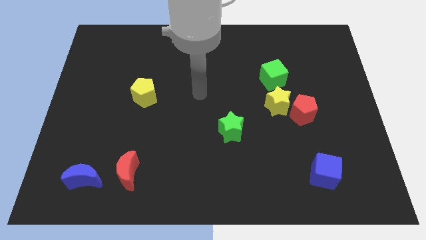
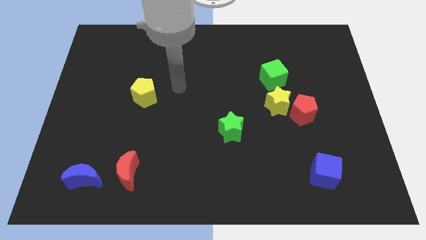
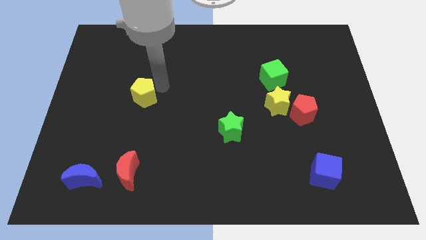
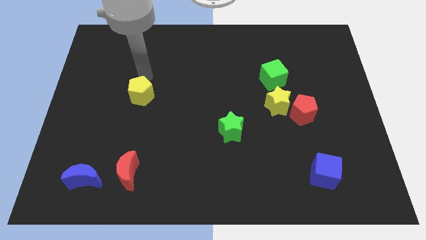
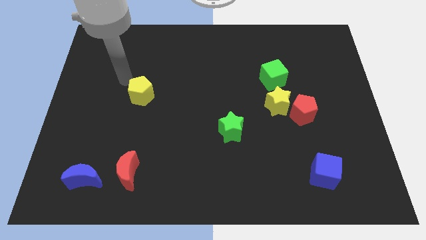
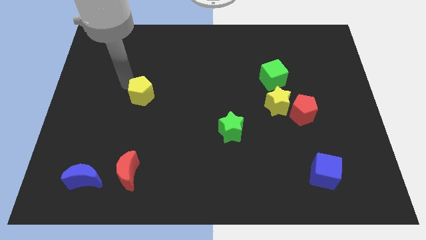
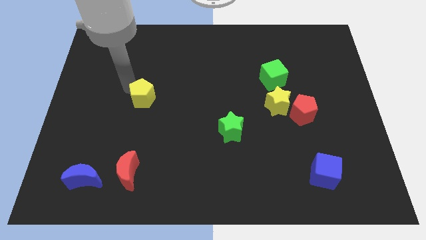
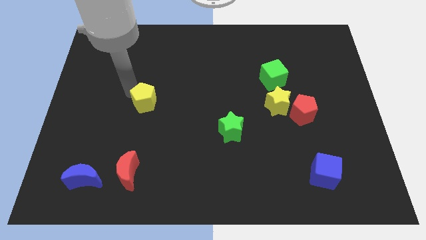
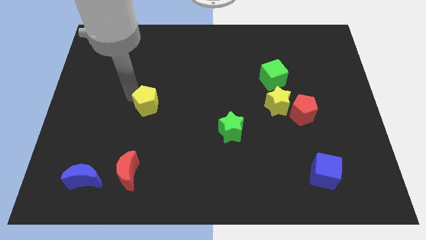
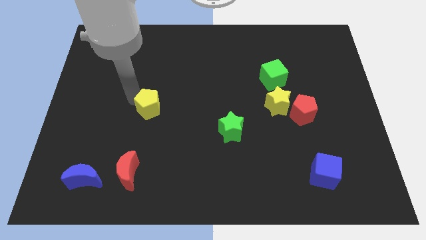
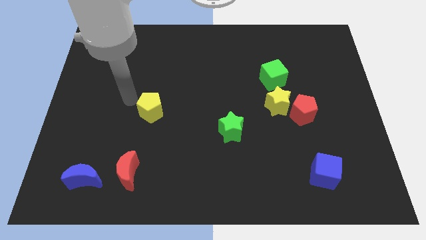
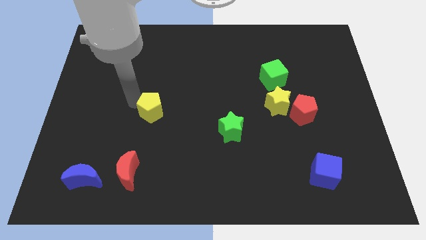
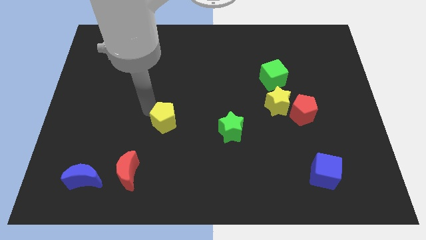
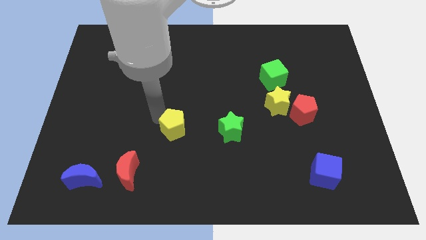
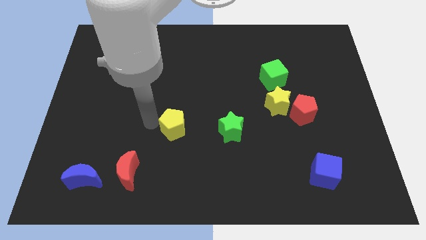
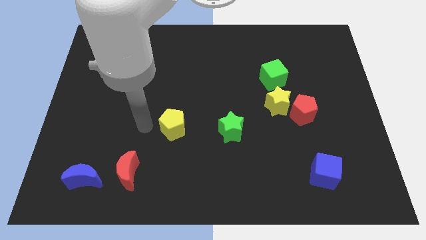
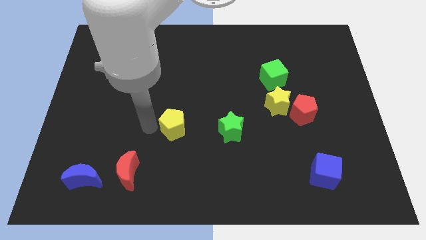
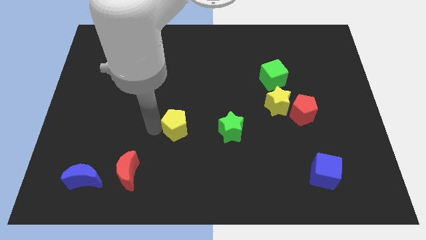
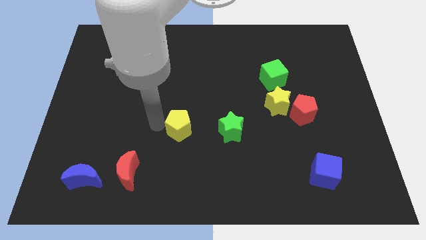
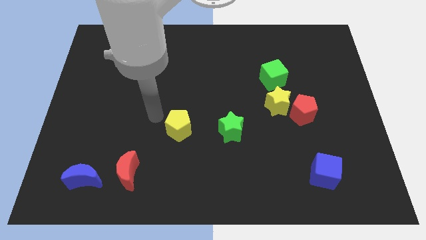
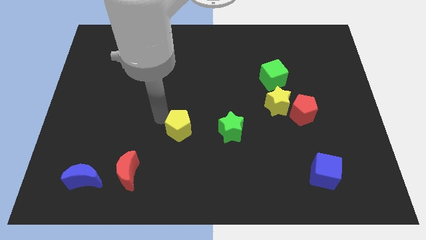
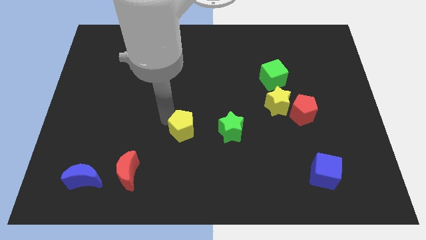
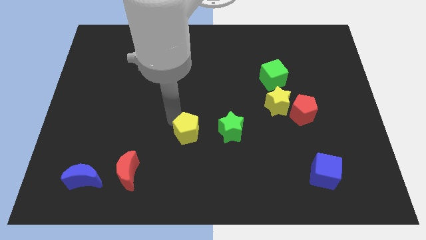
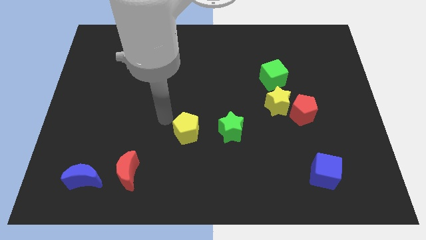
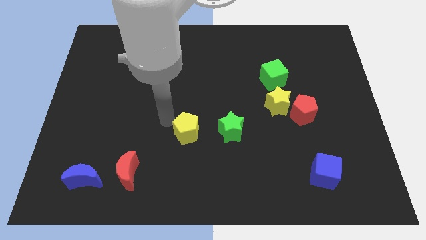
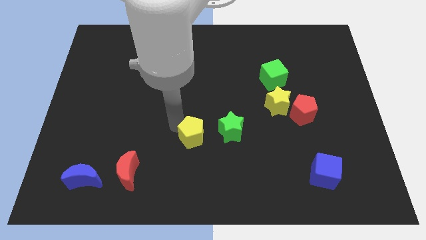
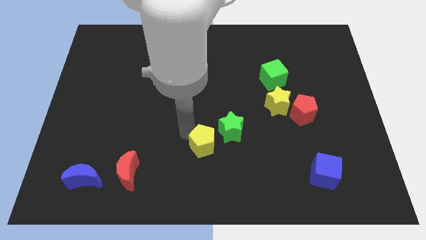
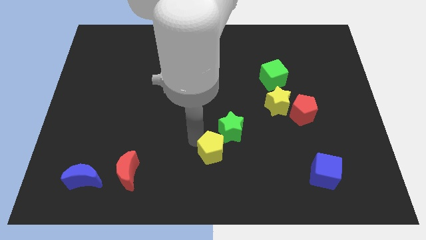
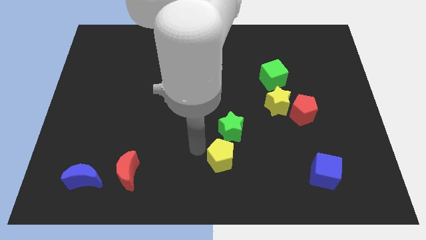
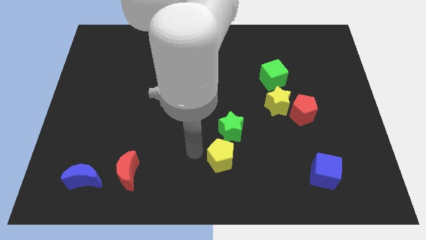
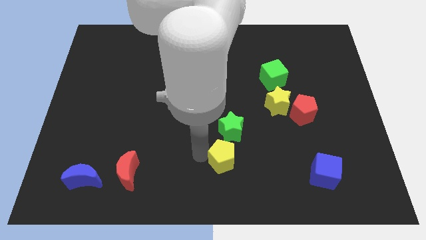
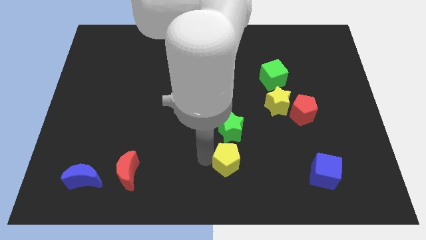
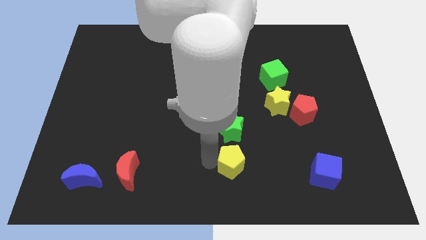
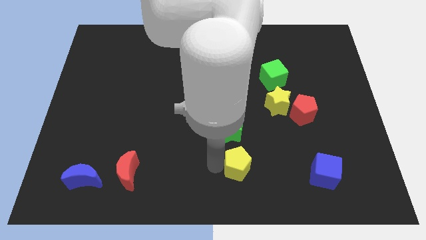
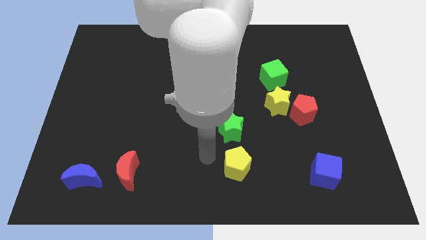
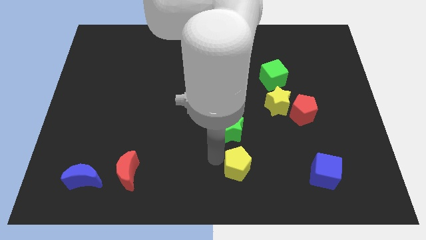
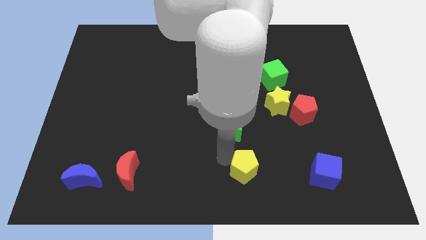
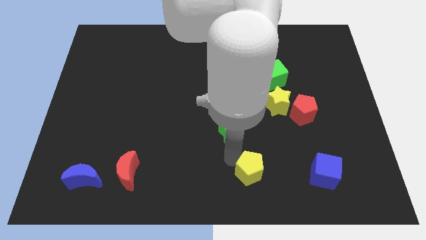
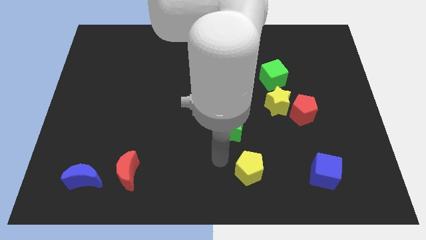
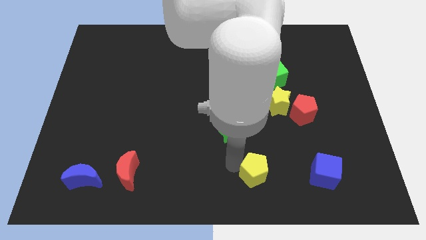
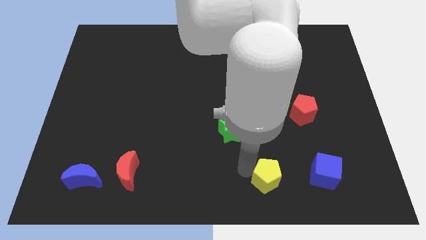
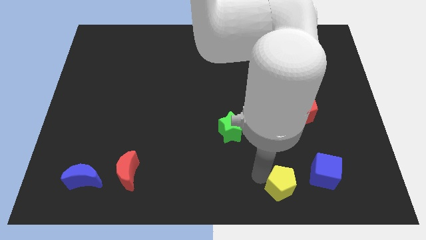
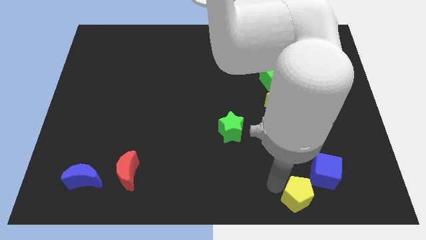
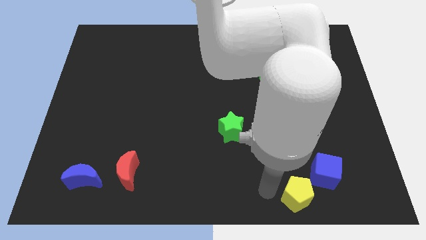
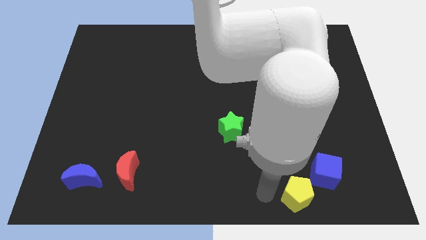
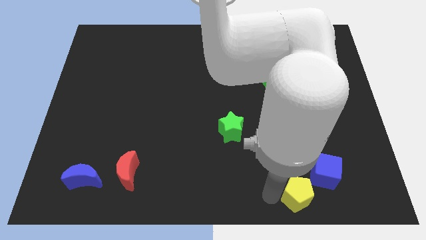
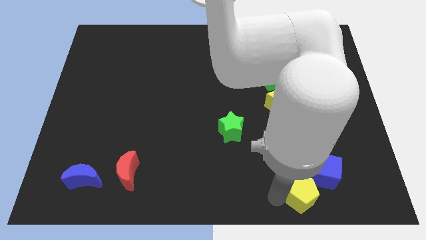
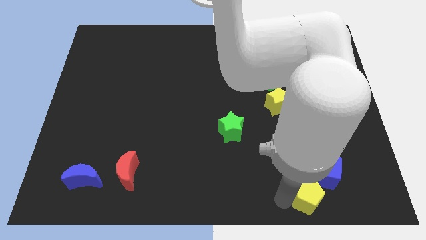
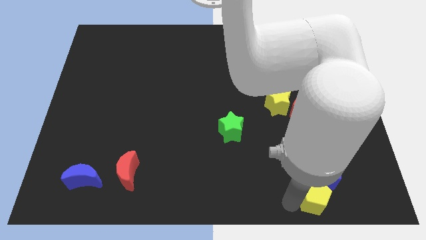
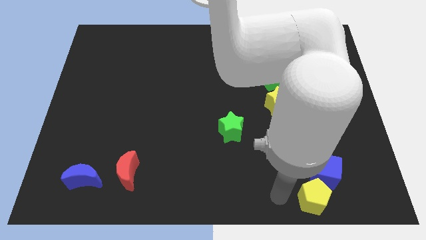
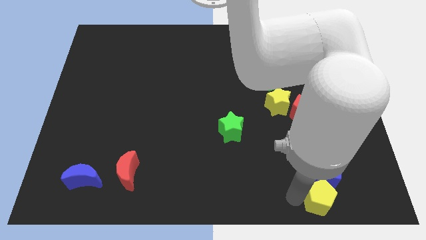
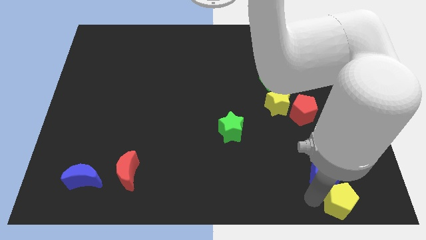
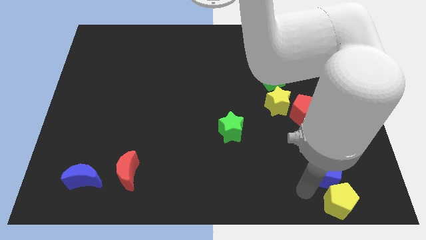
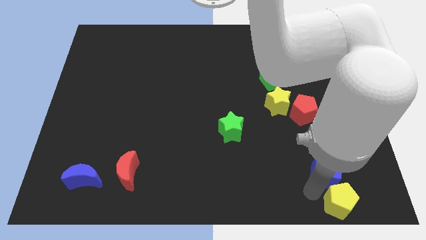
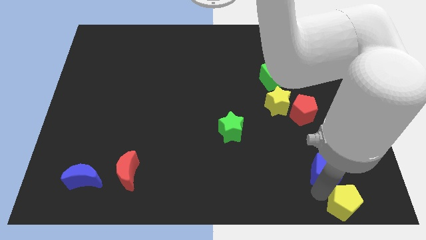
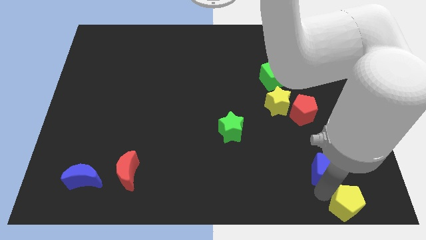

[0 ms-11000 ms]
push the yellow pentagon to the bottom right corner

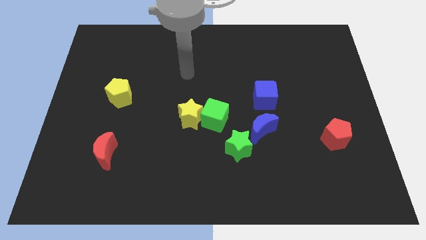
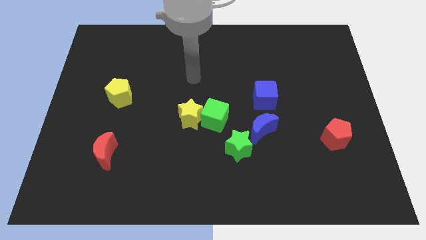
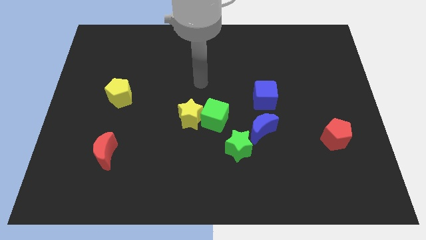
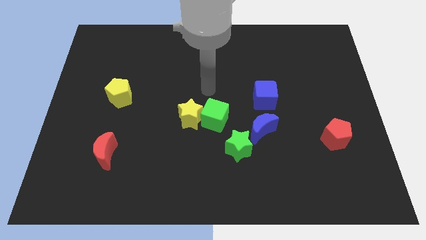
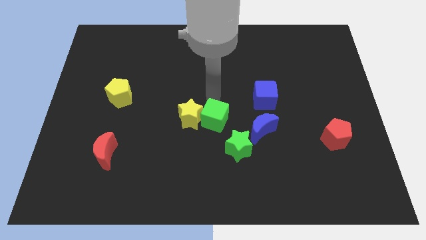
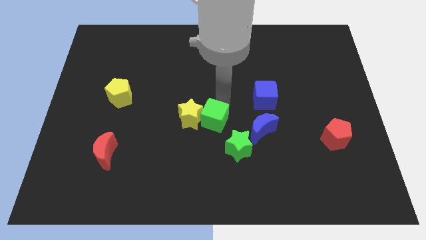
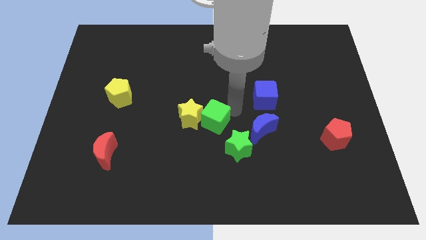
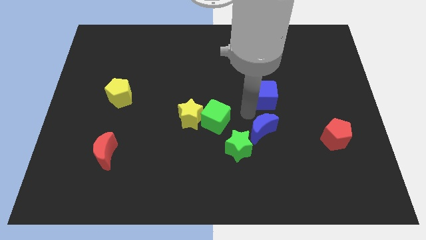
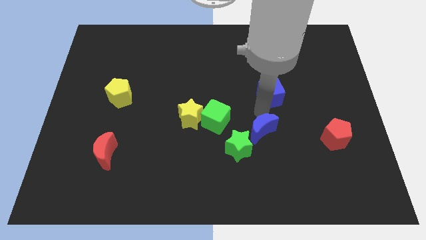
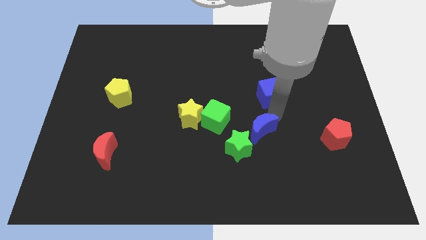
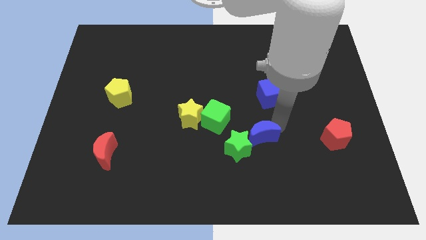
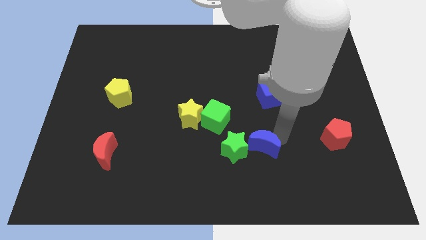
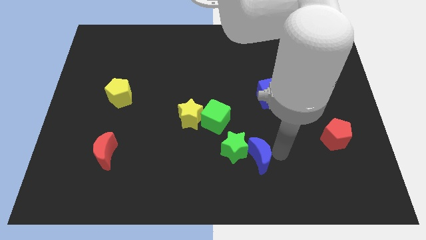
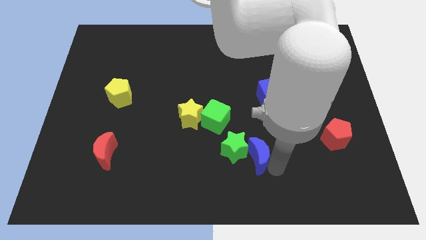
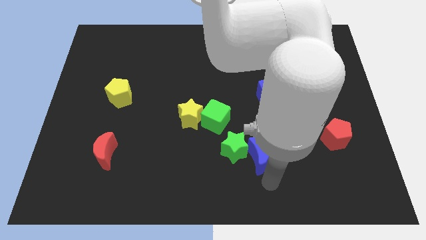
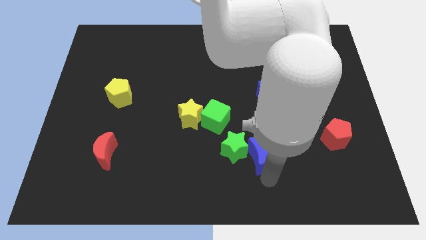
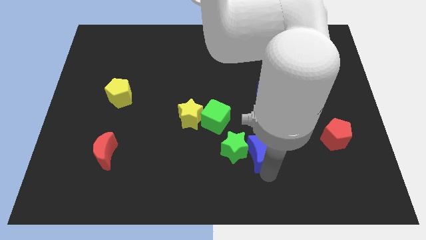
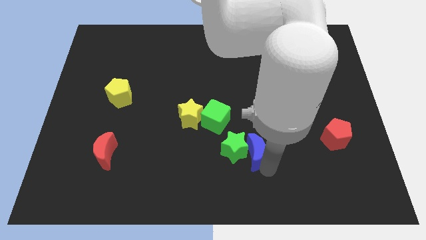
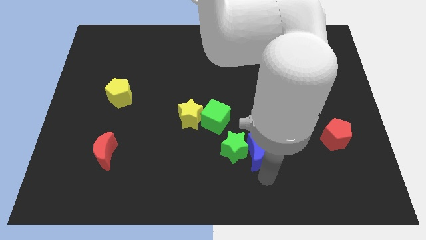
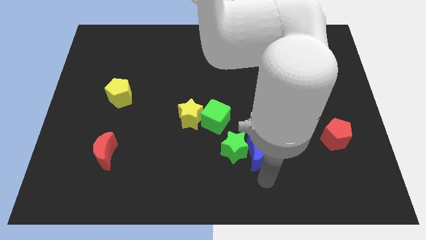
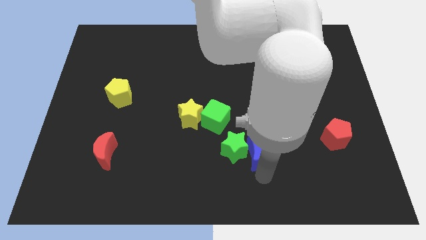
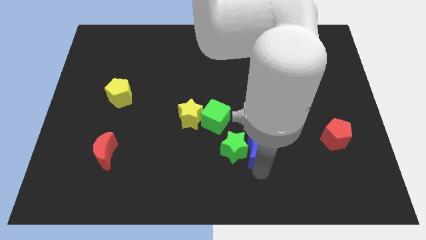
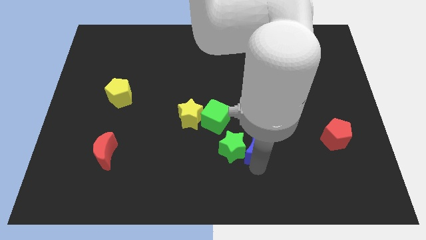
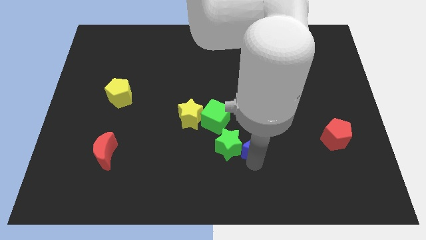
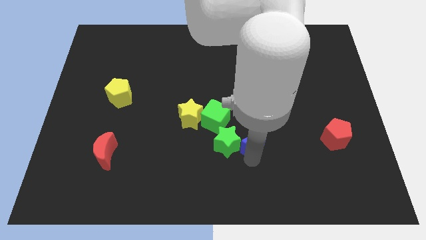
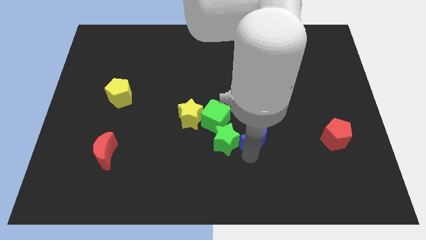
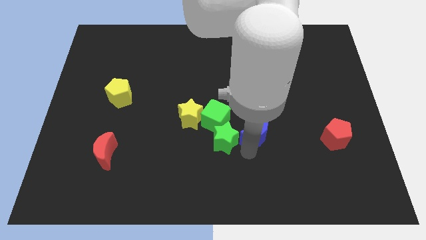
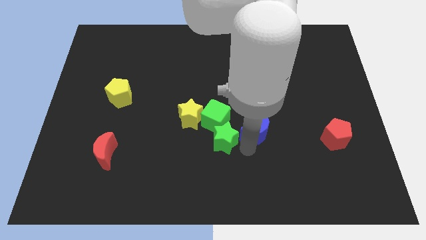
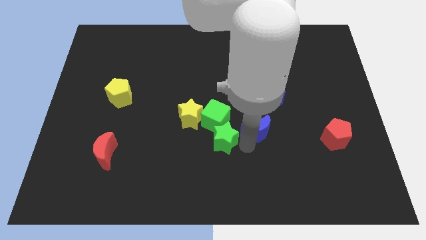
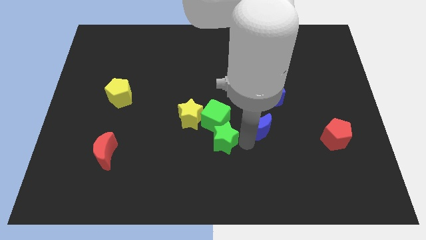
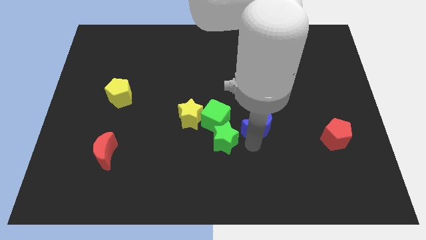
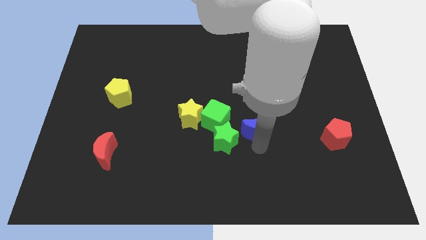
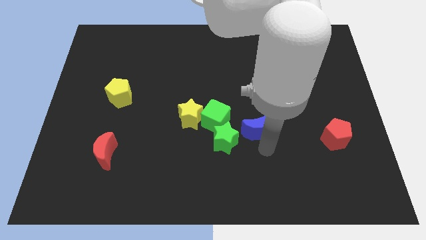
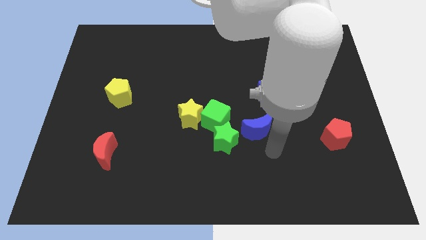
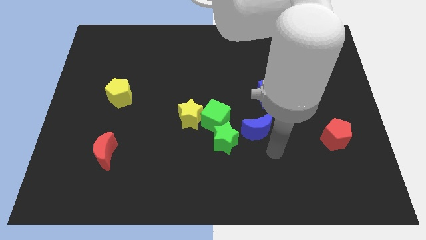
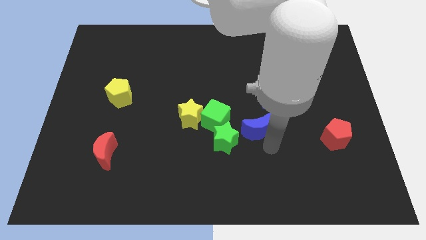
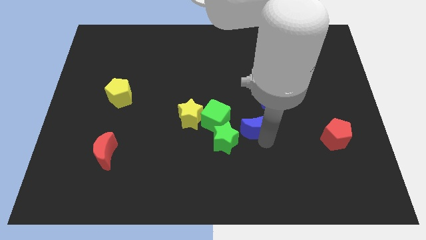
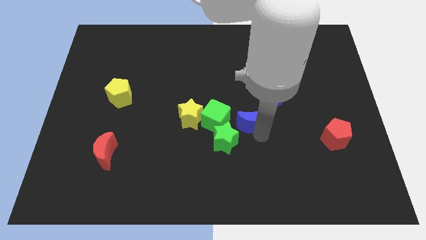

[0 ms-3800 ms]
slide the blue moon to the middle
